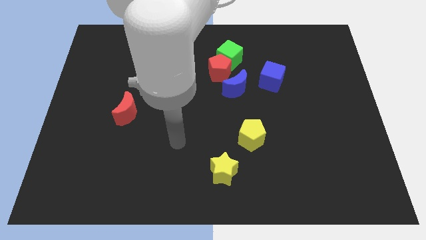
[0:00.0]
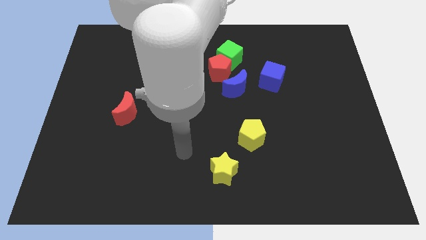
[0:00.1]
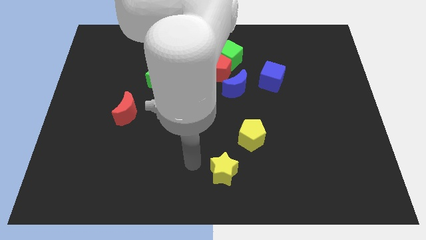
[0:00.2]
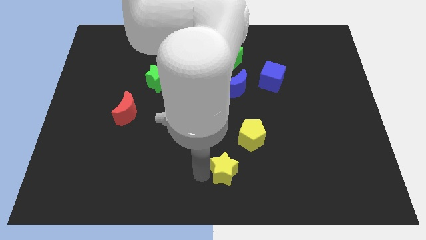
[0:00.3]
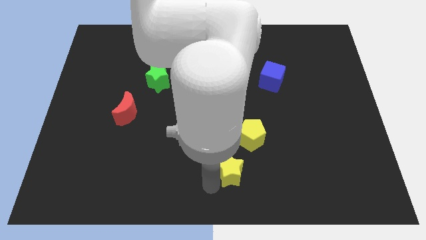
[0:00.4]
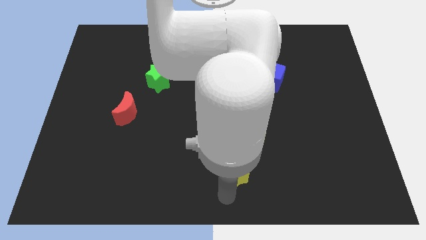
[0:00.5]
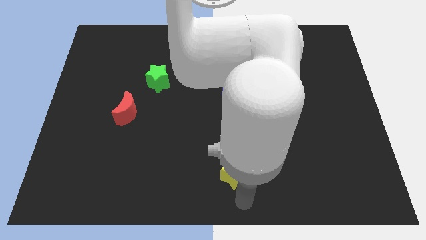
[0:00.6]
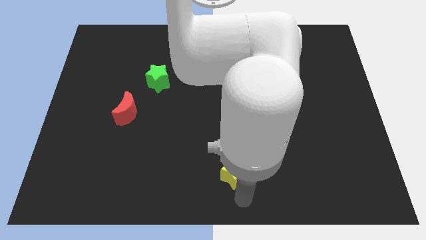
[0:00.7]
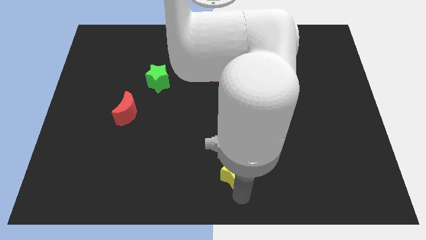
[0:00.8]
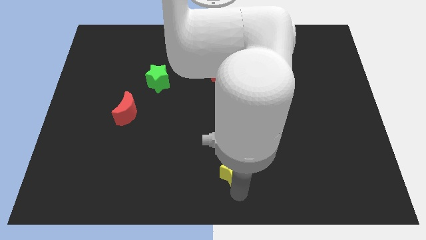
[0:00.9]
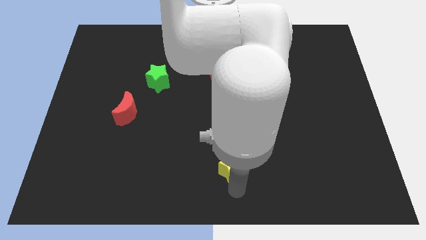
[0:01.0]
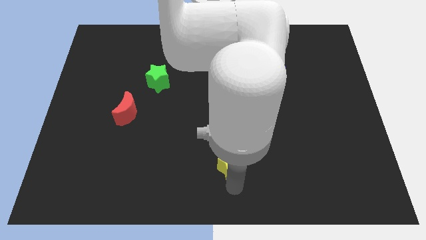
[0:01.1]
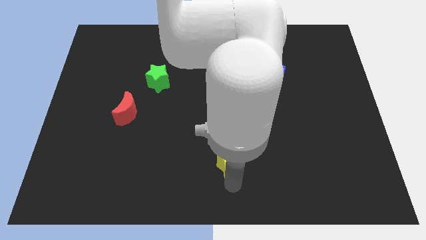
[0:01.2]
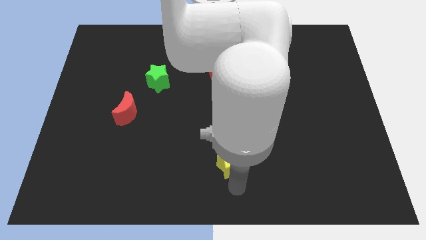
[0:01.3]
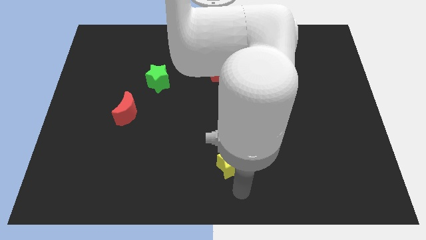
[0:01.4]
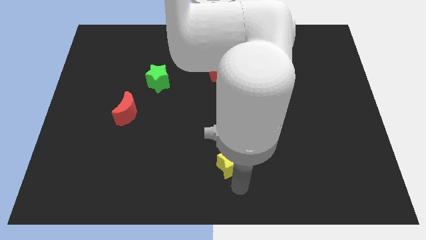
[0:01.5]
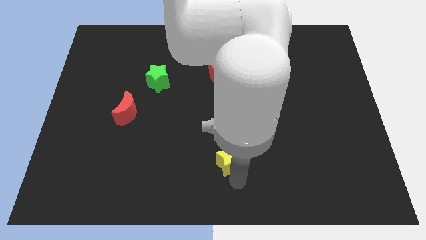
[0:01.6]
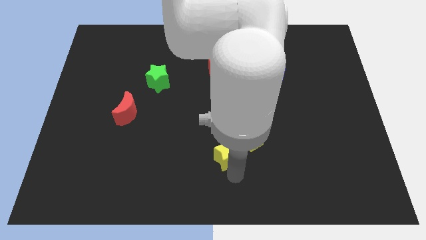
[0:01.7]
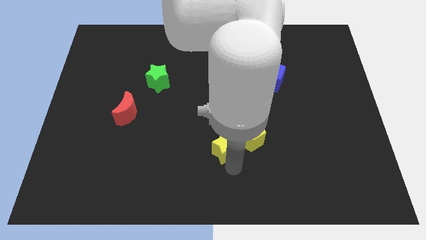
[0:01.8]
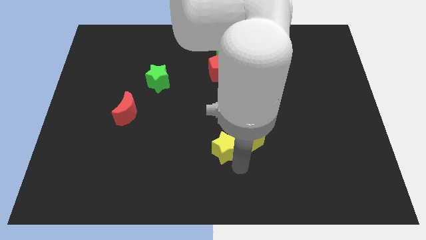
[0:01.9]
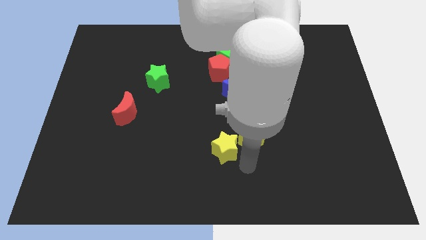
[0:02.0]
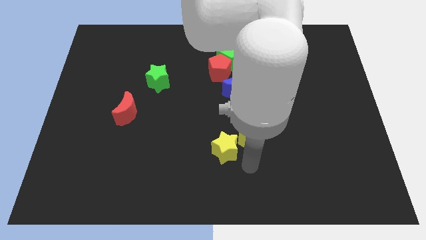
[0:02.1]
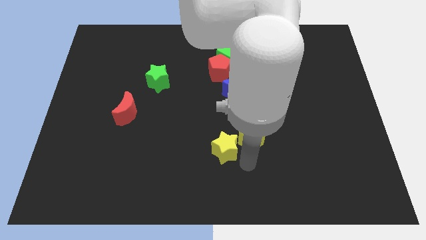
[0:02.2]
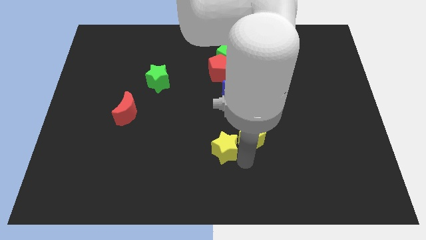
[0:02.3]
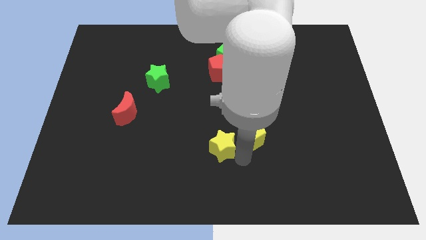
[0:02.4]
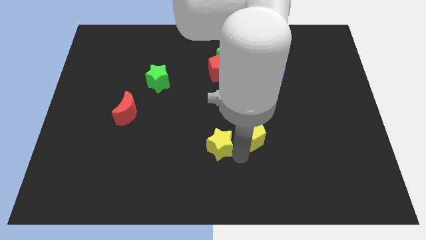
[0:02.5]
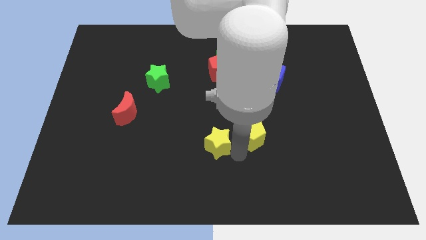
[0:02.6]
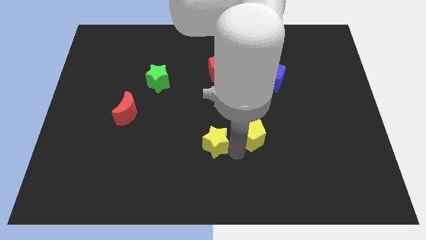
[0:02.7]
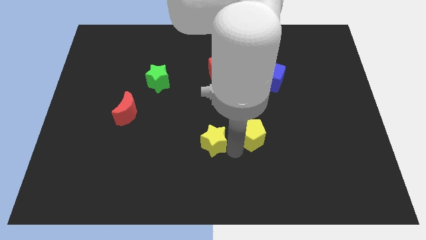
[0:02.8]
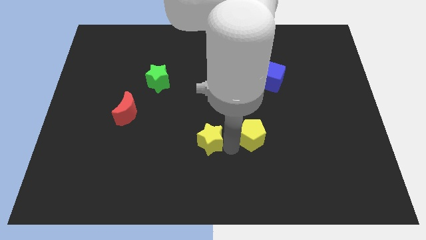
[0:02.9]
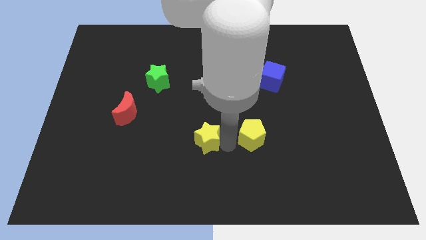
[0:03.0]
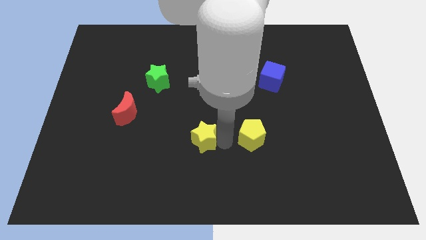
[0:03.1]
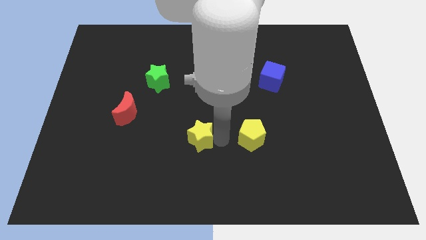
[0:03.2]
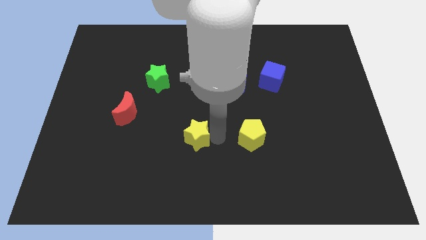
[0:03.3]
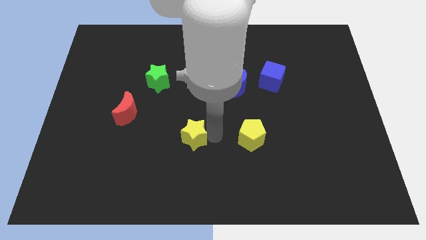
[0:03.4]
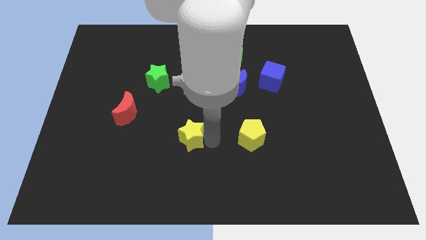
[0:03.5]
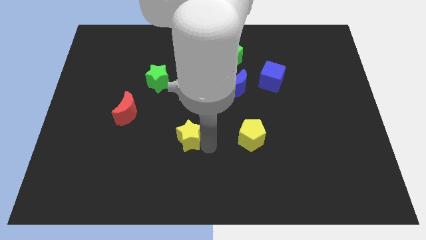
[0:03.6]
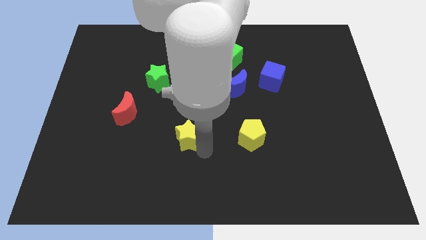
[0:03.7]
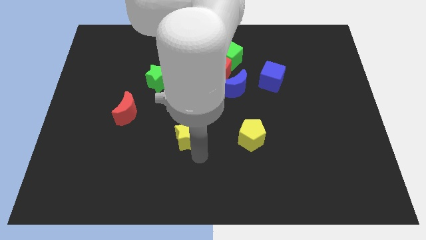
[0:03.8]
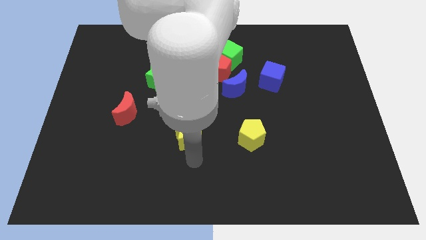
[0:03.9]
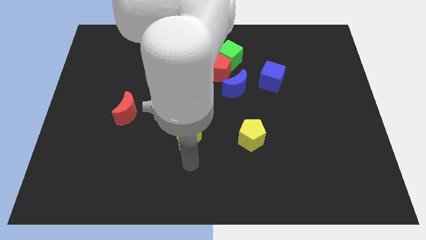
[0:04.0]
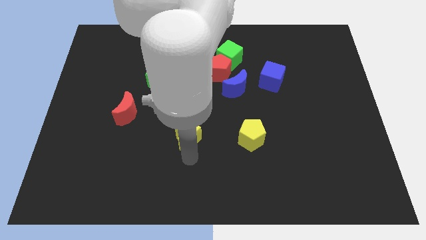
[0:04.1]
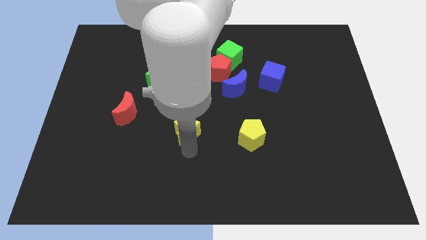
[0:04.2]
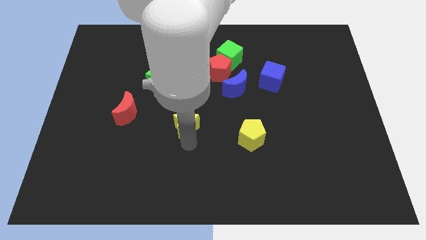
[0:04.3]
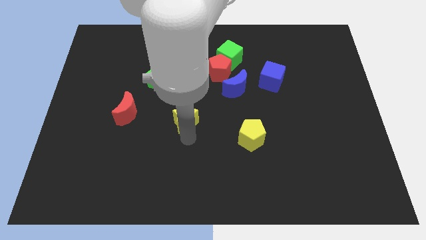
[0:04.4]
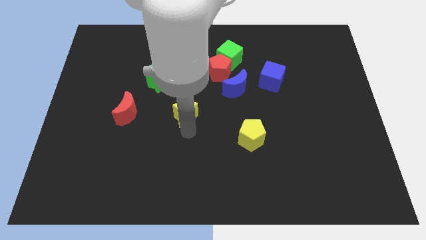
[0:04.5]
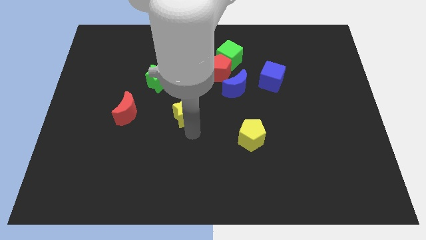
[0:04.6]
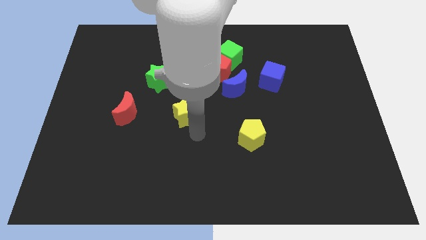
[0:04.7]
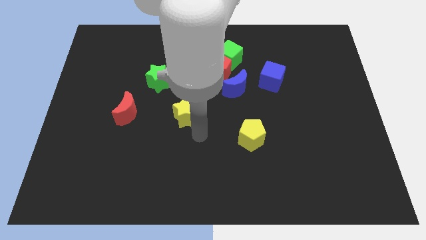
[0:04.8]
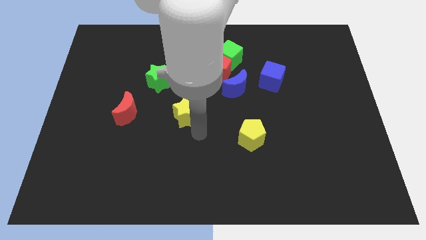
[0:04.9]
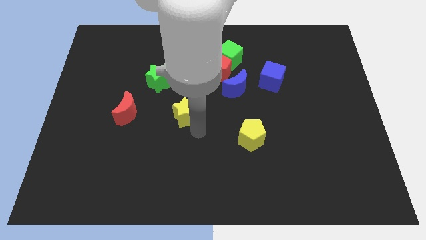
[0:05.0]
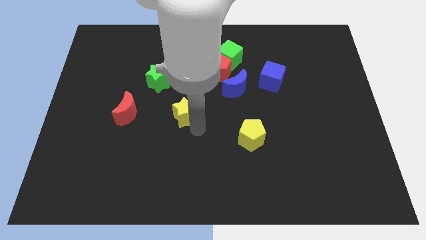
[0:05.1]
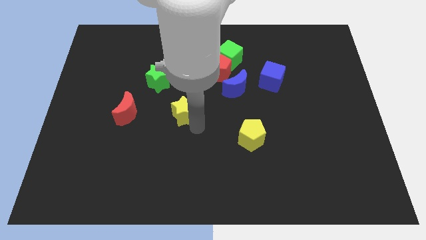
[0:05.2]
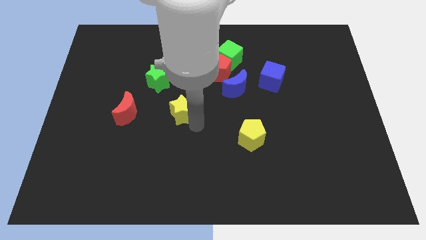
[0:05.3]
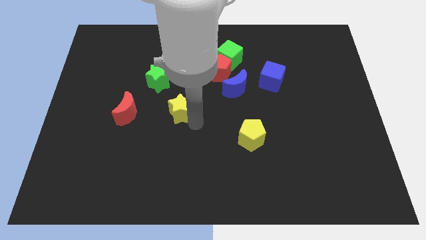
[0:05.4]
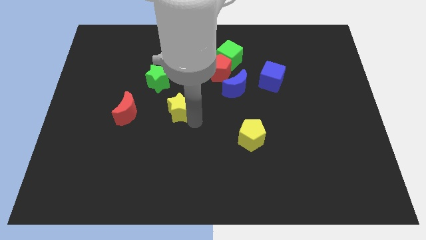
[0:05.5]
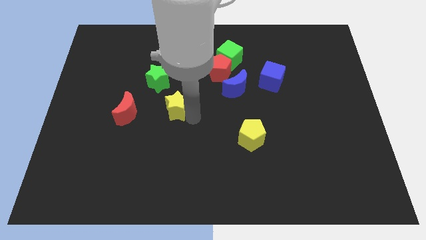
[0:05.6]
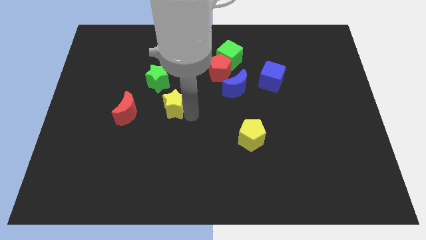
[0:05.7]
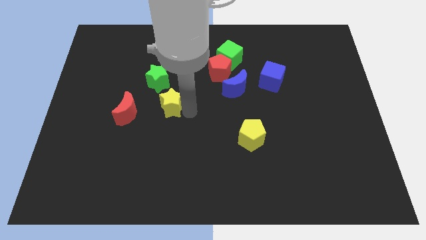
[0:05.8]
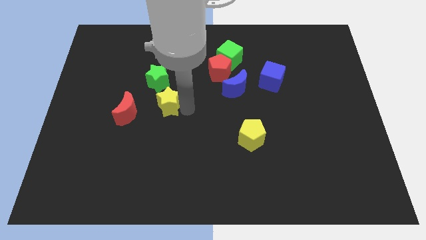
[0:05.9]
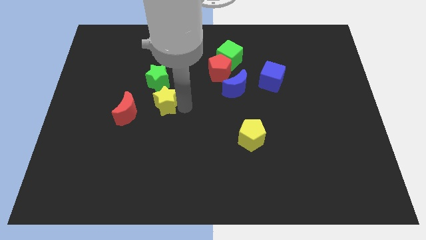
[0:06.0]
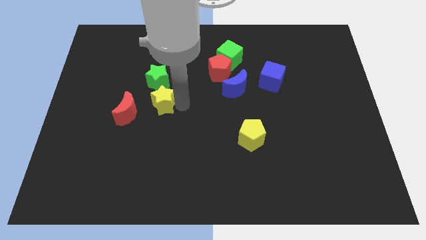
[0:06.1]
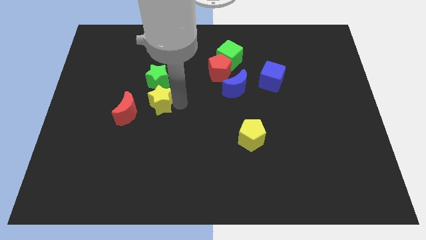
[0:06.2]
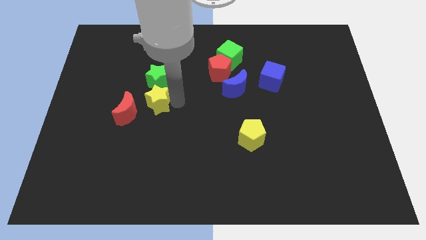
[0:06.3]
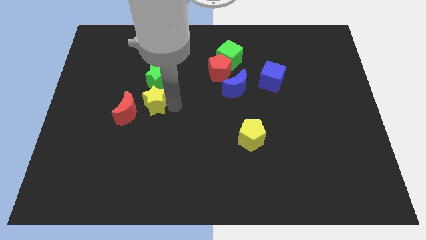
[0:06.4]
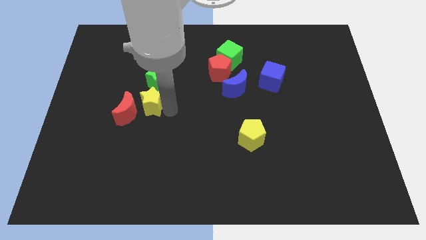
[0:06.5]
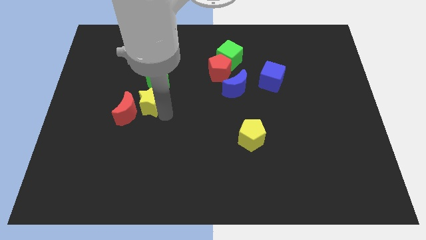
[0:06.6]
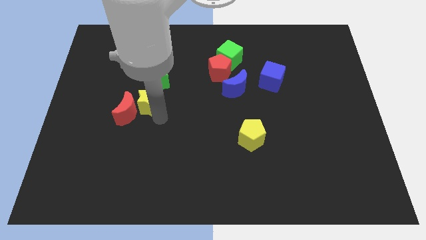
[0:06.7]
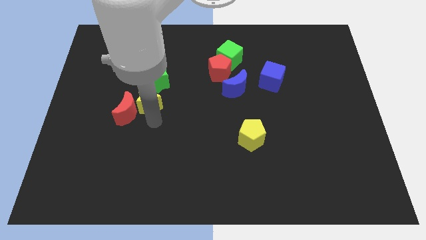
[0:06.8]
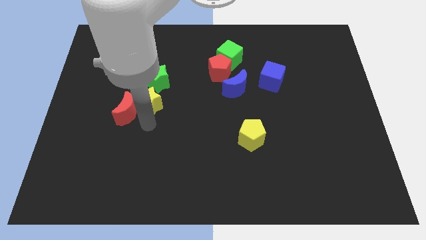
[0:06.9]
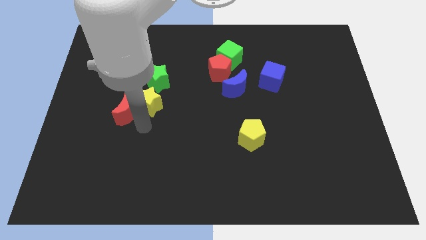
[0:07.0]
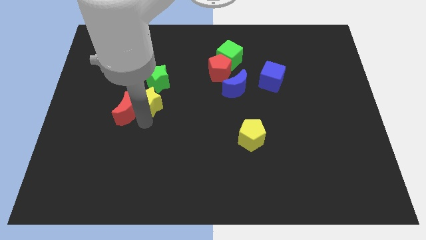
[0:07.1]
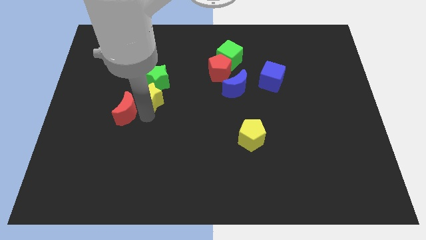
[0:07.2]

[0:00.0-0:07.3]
push the yellow star close to the green star

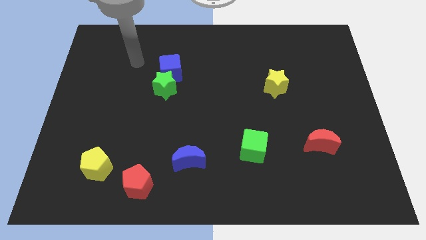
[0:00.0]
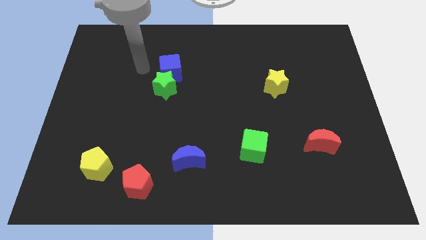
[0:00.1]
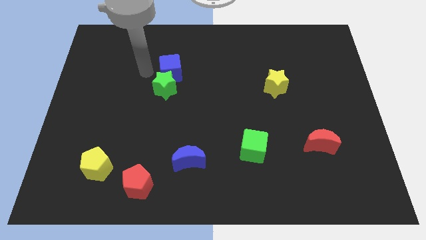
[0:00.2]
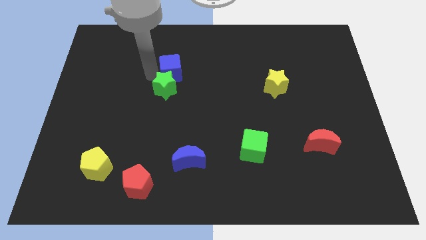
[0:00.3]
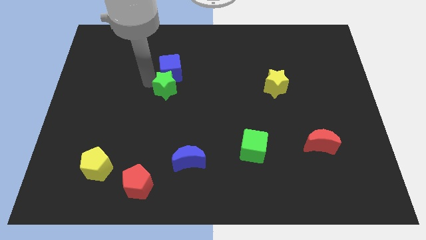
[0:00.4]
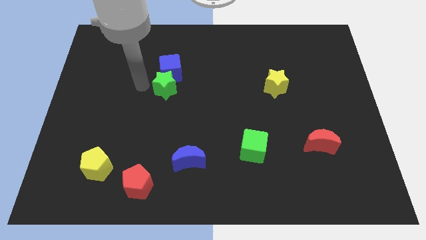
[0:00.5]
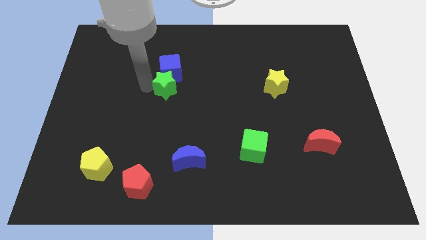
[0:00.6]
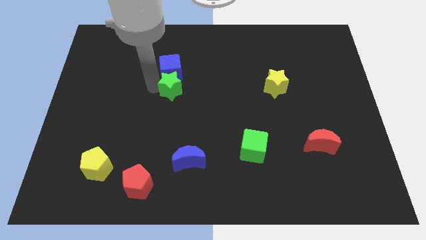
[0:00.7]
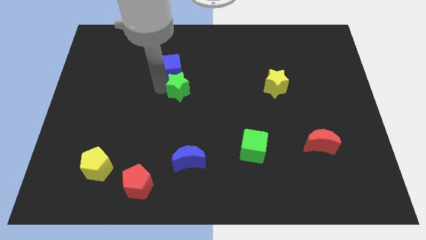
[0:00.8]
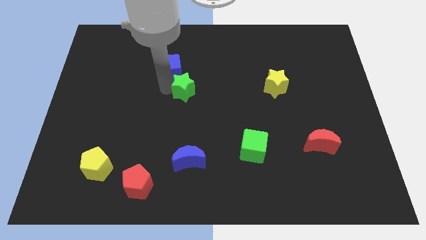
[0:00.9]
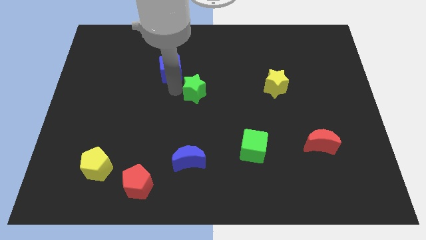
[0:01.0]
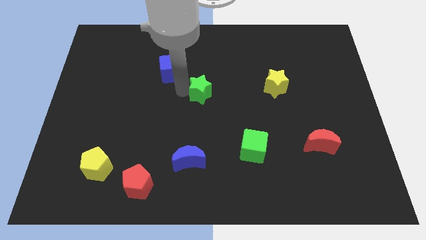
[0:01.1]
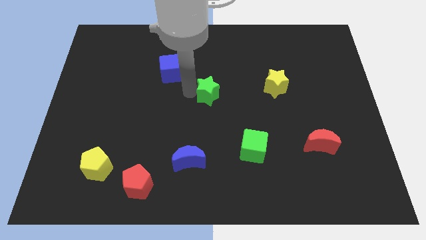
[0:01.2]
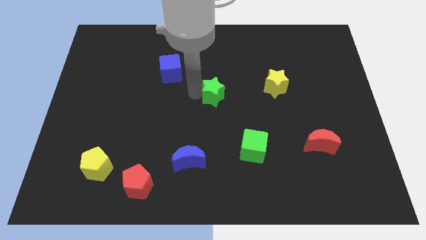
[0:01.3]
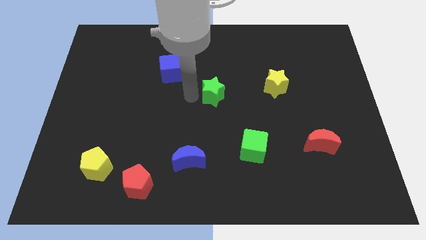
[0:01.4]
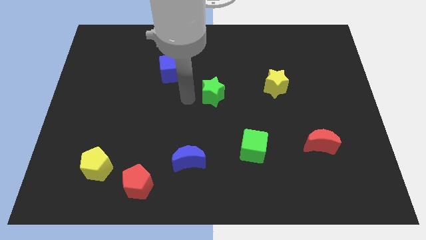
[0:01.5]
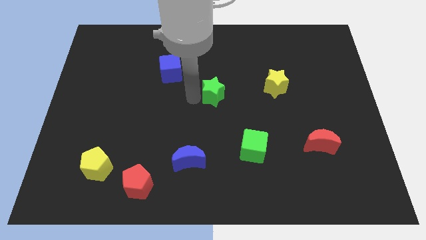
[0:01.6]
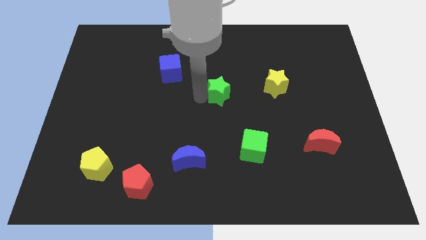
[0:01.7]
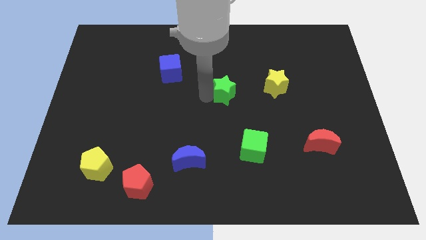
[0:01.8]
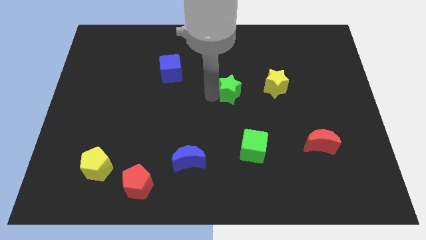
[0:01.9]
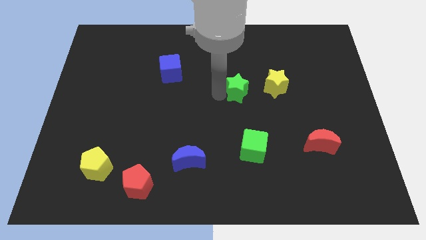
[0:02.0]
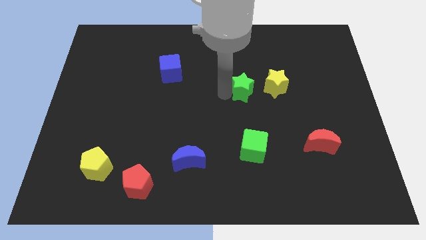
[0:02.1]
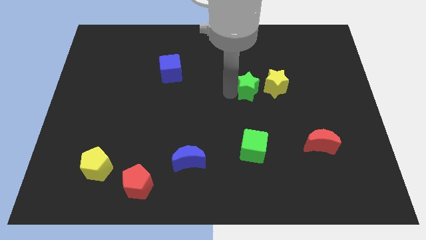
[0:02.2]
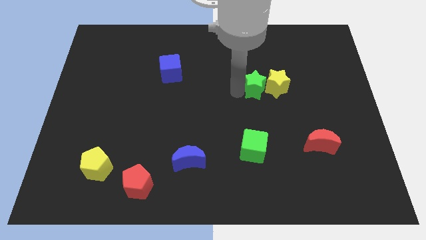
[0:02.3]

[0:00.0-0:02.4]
slide the green star next to the yellow star
